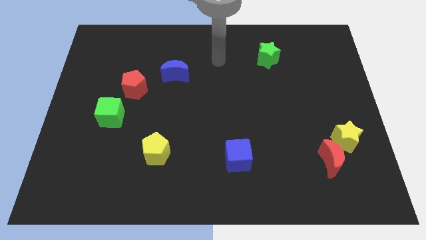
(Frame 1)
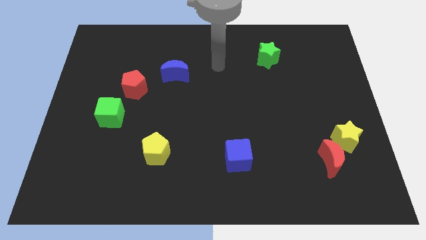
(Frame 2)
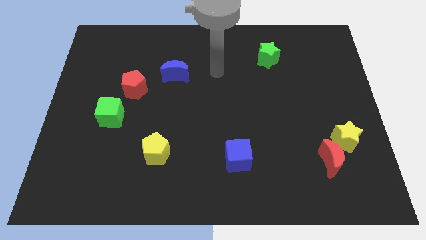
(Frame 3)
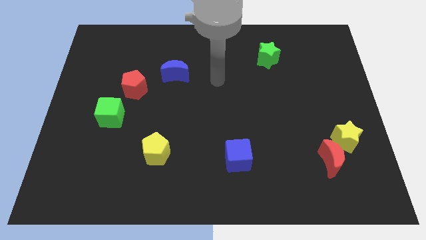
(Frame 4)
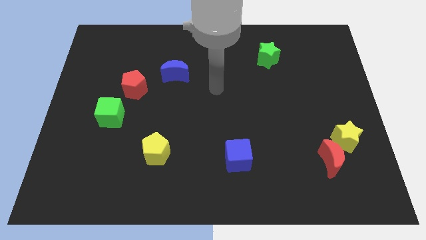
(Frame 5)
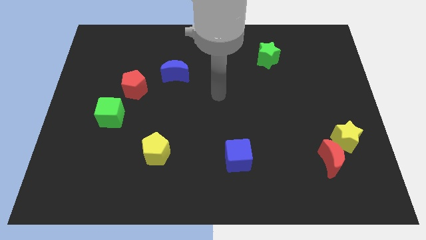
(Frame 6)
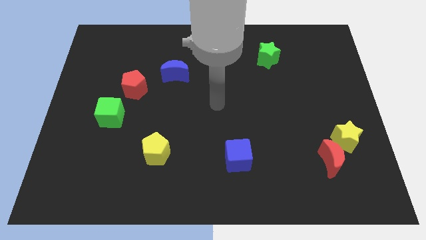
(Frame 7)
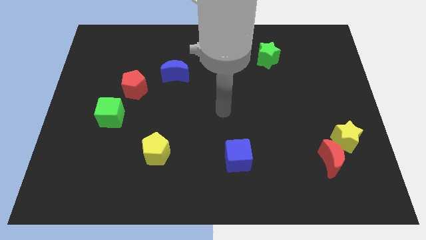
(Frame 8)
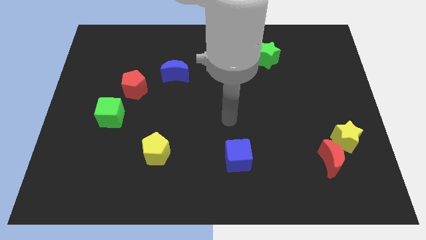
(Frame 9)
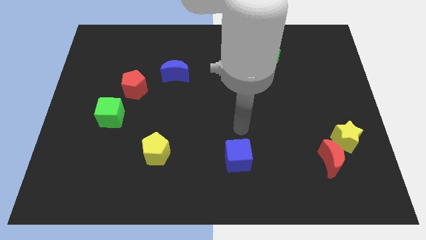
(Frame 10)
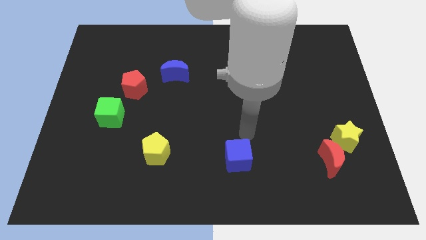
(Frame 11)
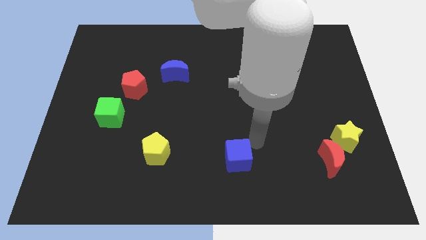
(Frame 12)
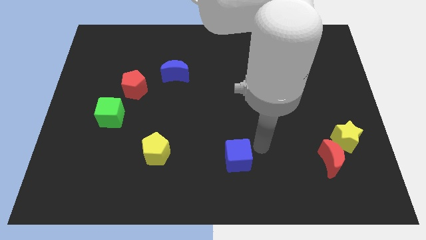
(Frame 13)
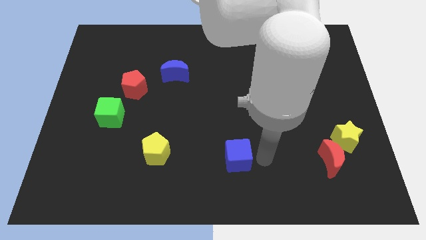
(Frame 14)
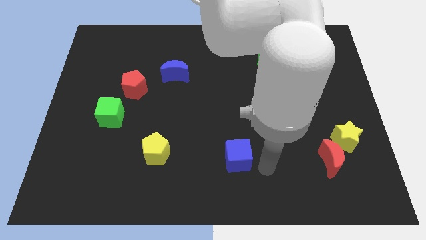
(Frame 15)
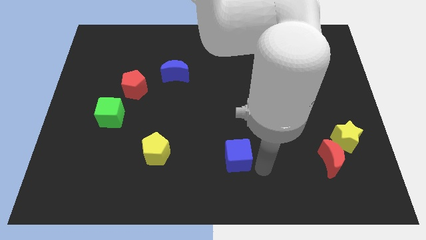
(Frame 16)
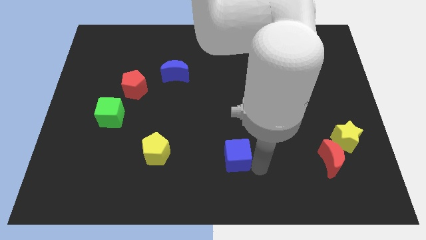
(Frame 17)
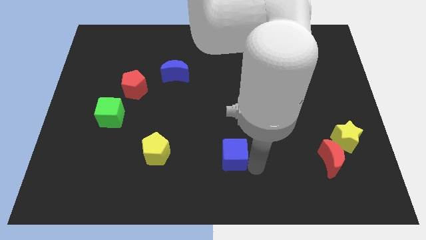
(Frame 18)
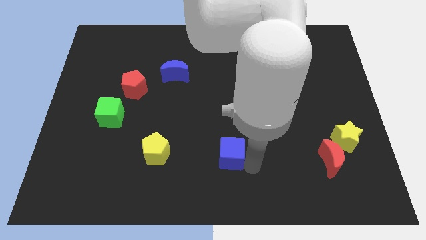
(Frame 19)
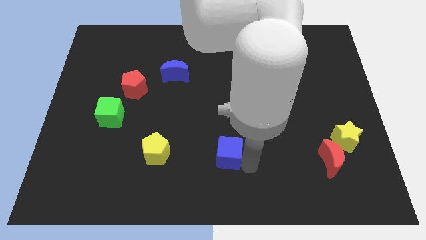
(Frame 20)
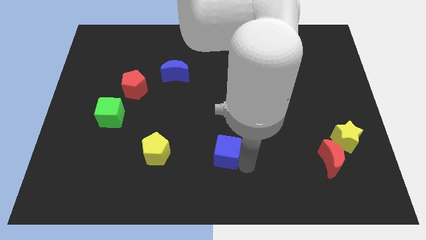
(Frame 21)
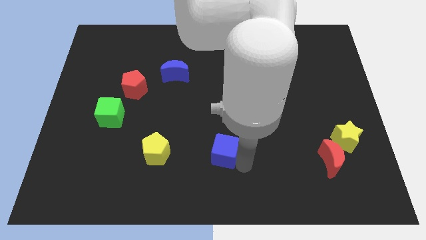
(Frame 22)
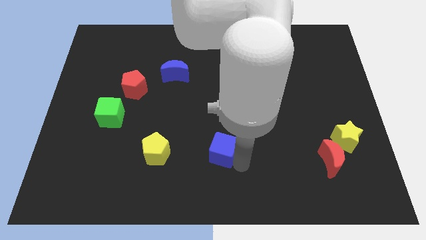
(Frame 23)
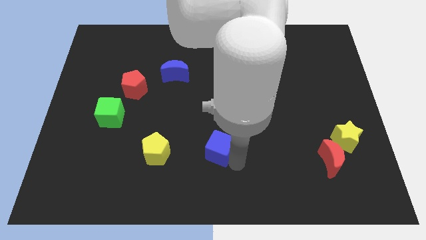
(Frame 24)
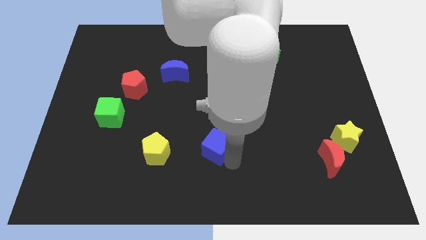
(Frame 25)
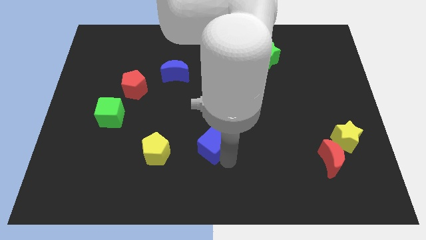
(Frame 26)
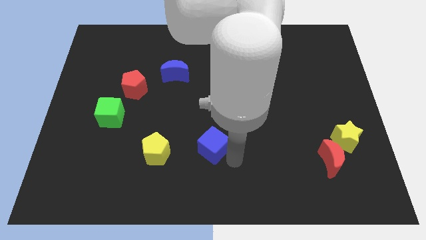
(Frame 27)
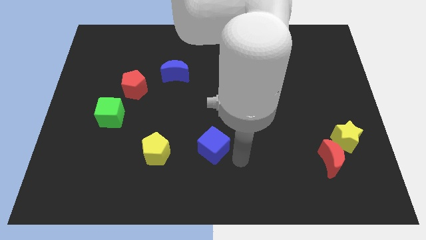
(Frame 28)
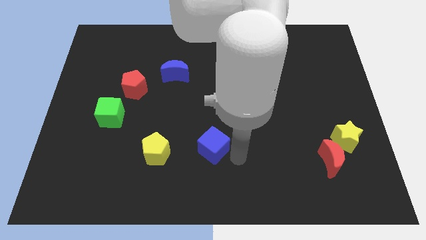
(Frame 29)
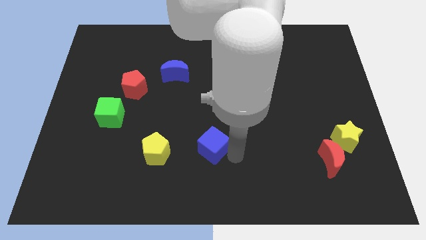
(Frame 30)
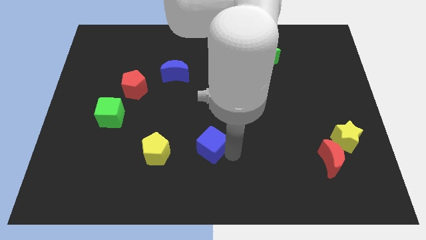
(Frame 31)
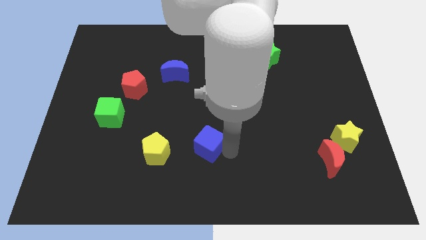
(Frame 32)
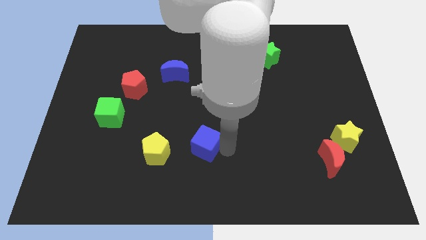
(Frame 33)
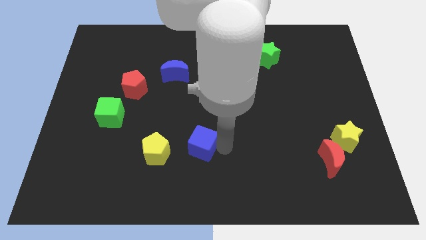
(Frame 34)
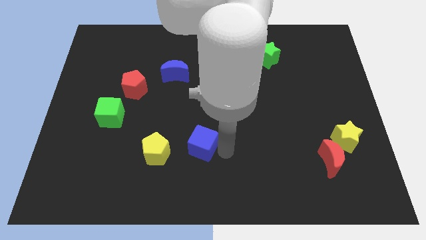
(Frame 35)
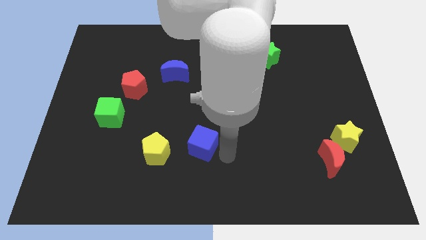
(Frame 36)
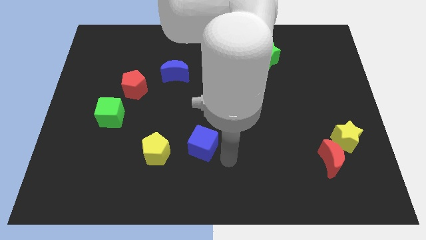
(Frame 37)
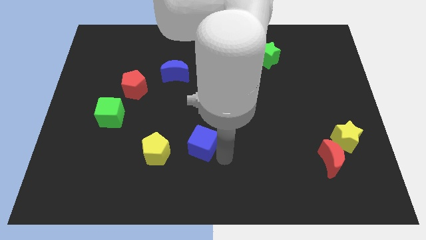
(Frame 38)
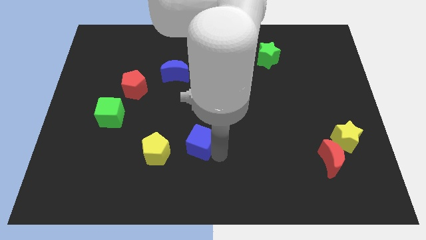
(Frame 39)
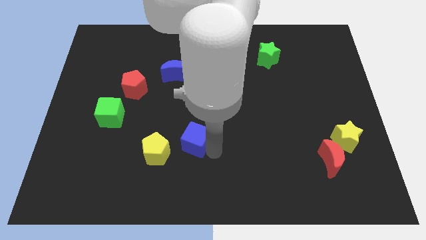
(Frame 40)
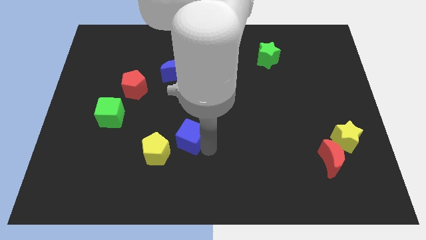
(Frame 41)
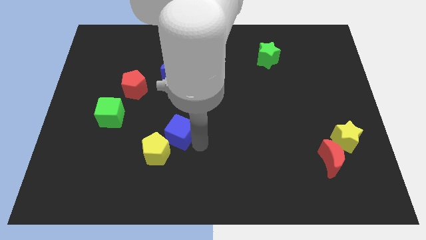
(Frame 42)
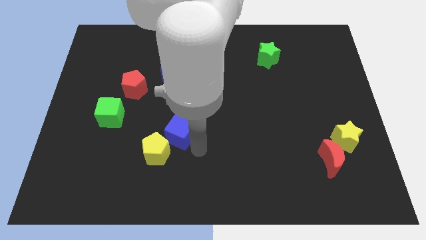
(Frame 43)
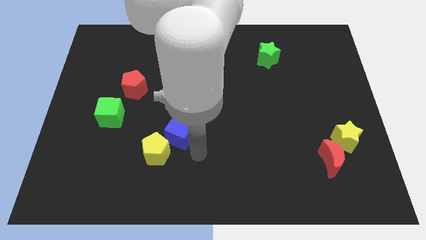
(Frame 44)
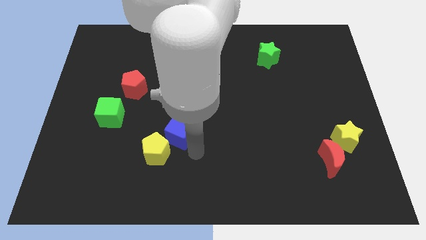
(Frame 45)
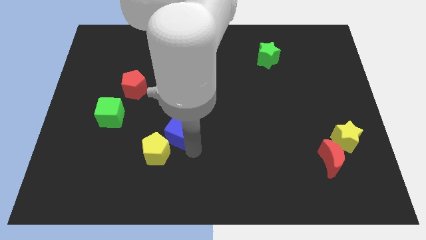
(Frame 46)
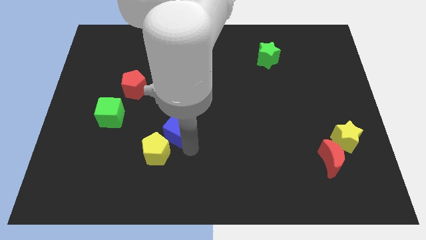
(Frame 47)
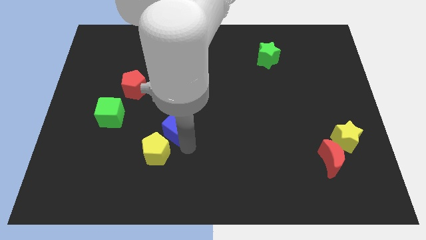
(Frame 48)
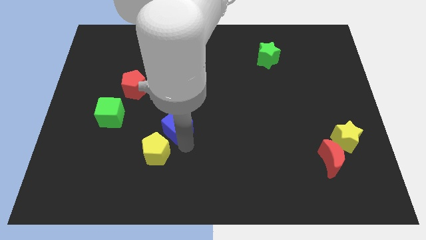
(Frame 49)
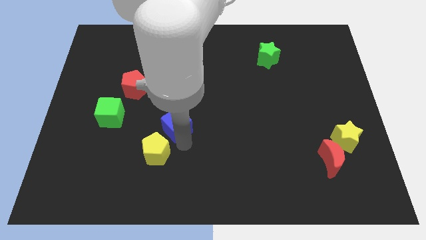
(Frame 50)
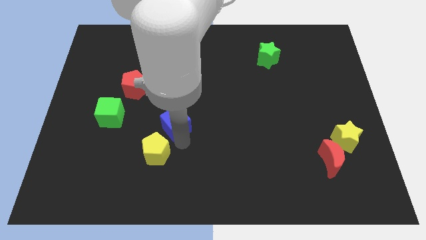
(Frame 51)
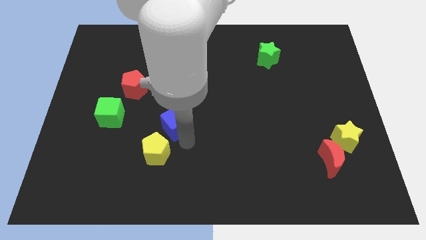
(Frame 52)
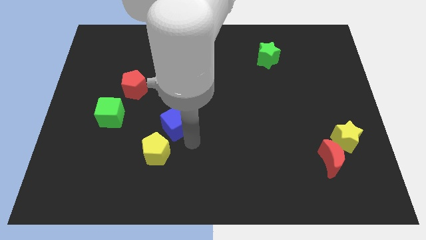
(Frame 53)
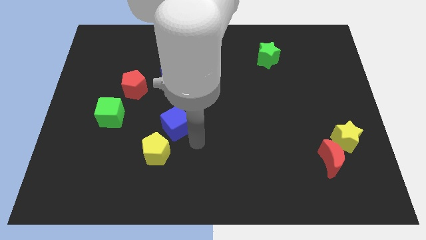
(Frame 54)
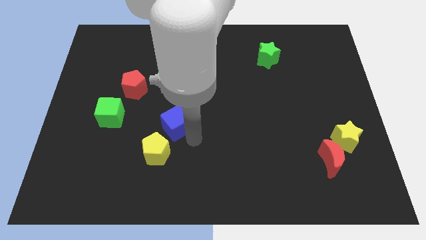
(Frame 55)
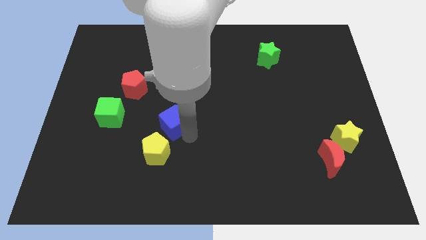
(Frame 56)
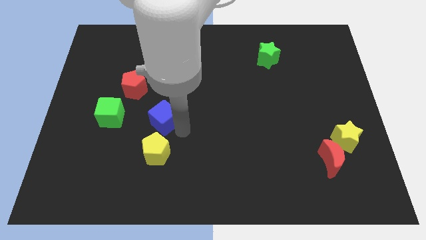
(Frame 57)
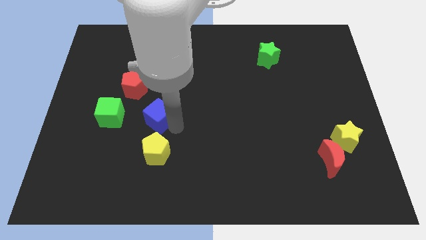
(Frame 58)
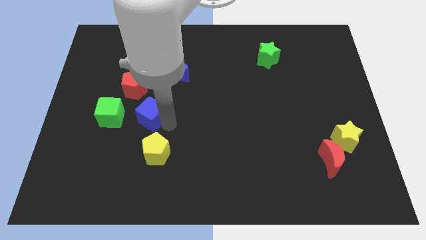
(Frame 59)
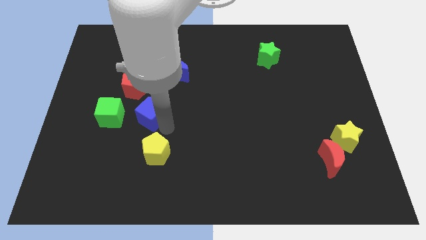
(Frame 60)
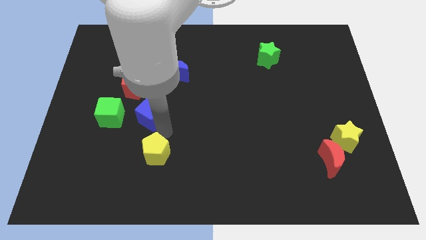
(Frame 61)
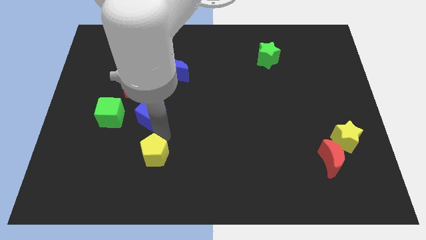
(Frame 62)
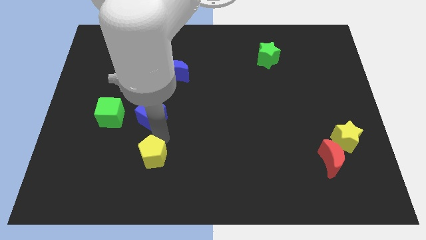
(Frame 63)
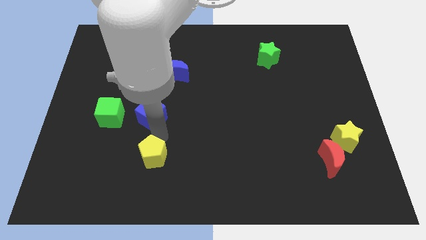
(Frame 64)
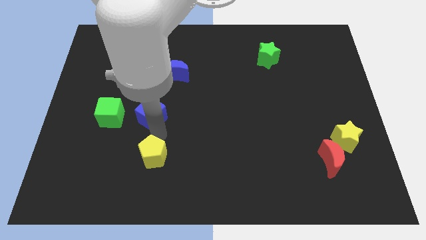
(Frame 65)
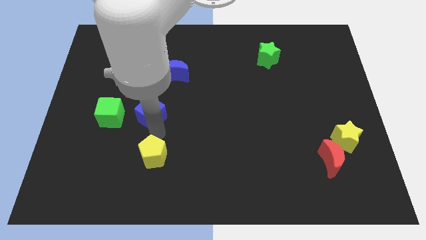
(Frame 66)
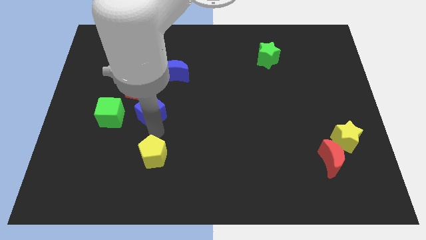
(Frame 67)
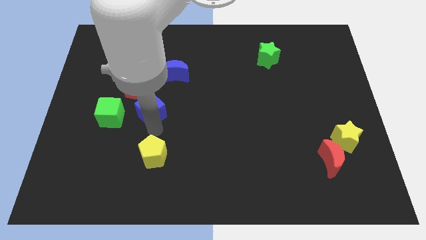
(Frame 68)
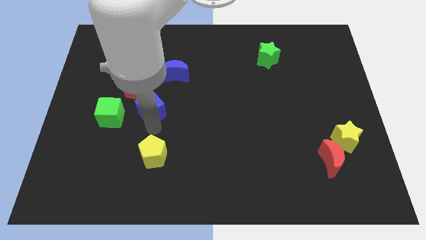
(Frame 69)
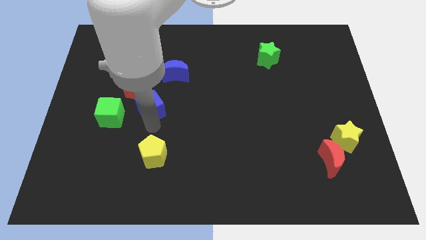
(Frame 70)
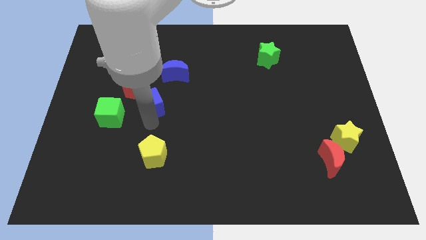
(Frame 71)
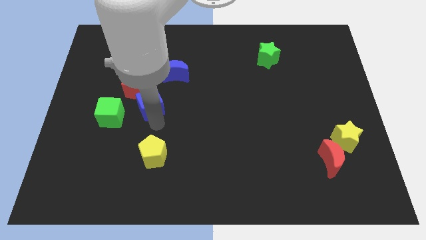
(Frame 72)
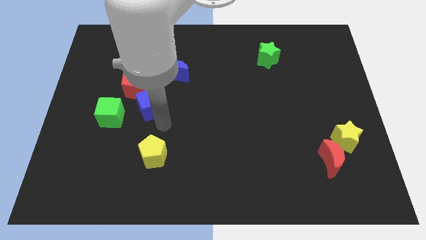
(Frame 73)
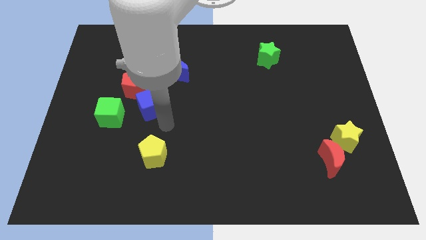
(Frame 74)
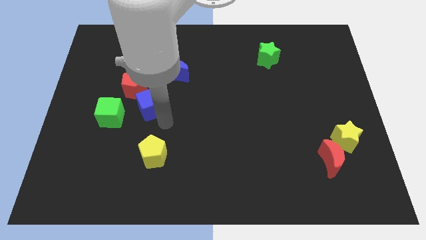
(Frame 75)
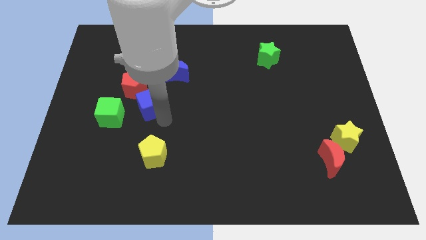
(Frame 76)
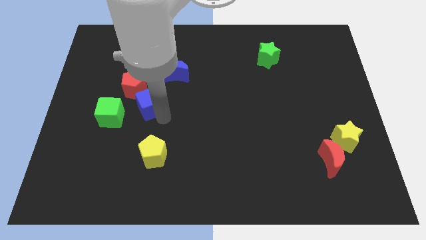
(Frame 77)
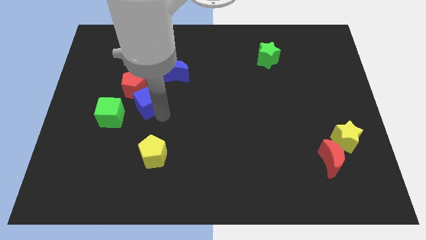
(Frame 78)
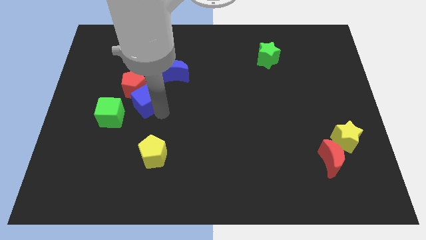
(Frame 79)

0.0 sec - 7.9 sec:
move the blue cube towards the red pentagon
